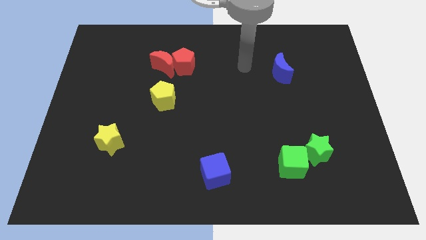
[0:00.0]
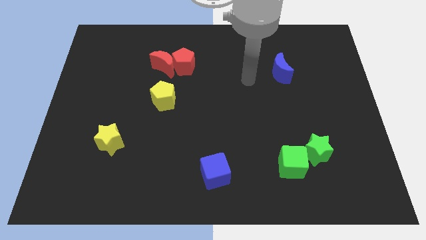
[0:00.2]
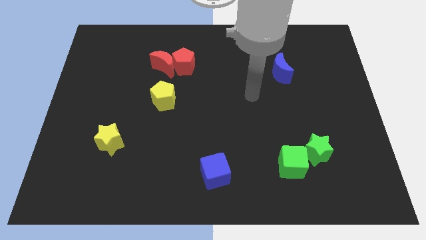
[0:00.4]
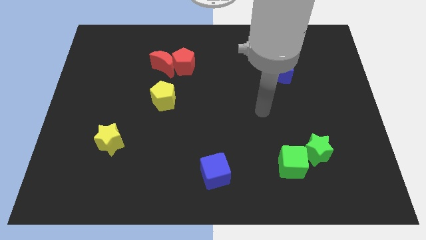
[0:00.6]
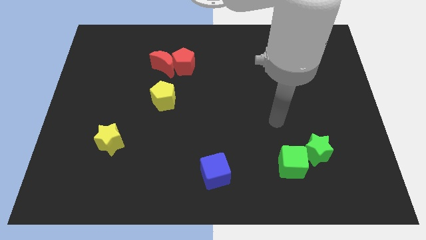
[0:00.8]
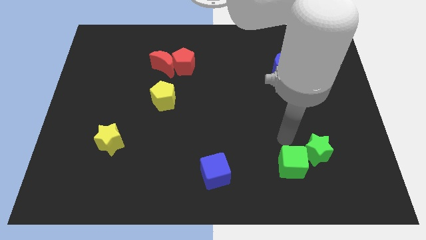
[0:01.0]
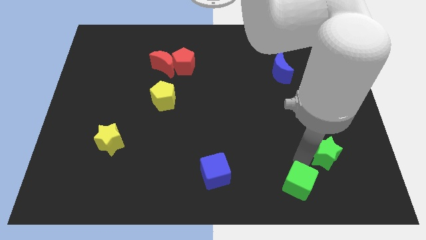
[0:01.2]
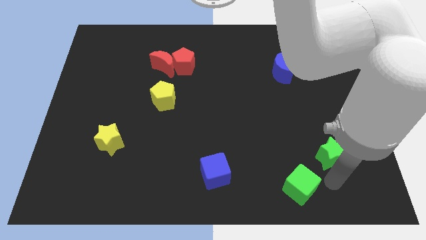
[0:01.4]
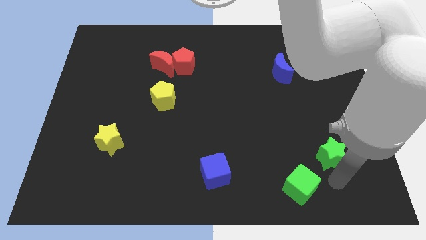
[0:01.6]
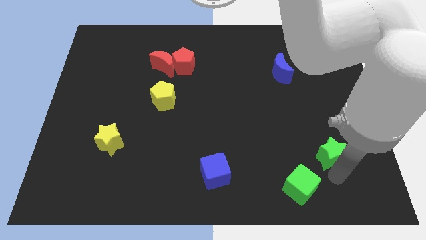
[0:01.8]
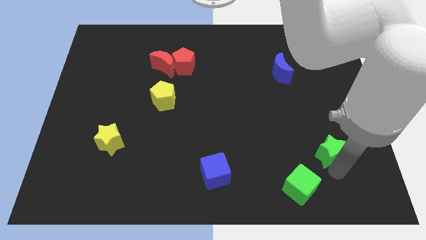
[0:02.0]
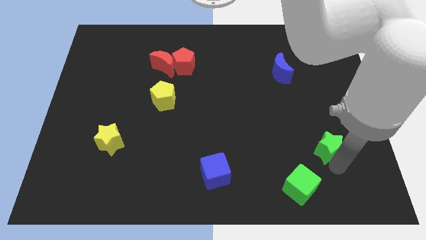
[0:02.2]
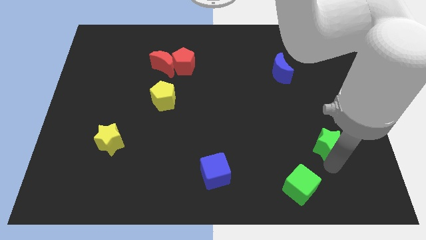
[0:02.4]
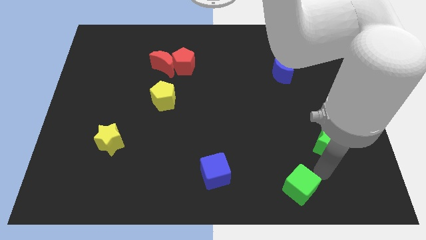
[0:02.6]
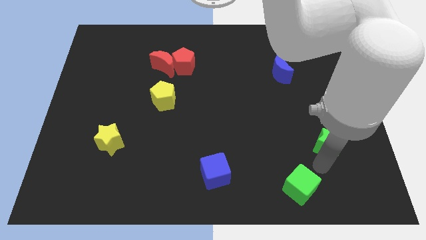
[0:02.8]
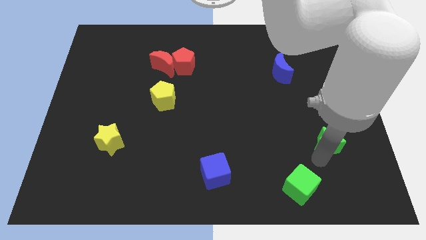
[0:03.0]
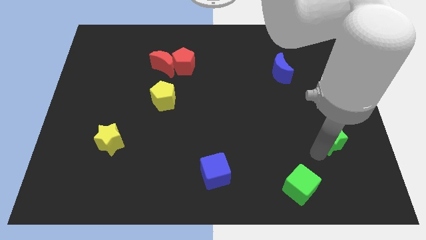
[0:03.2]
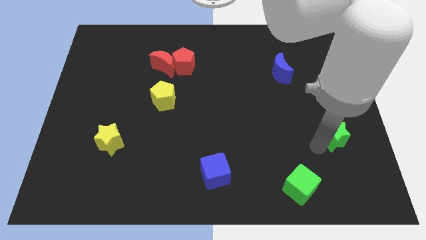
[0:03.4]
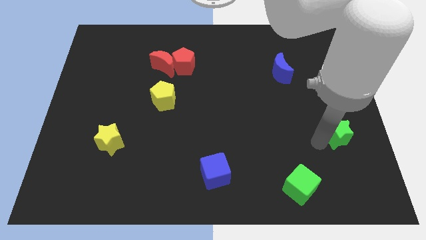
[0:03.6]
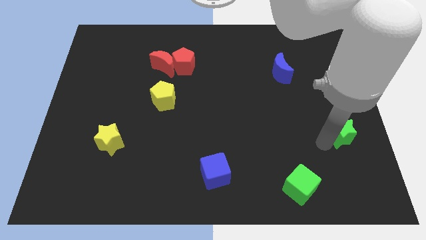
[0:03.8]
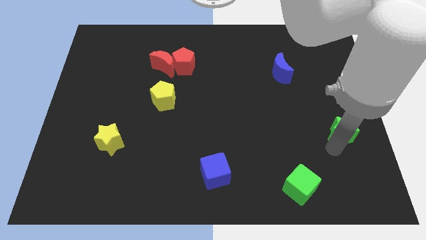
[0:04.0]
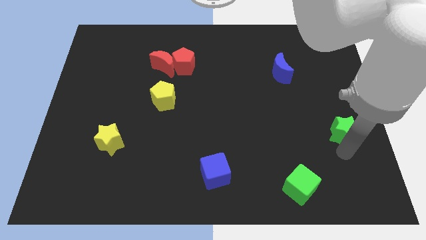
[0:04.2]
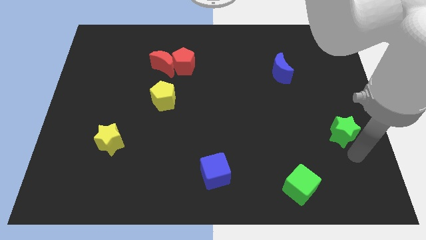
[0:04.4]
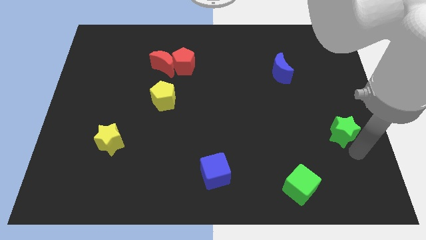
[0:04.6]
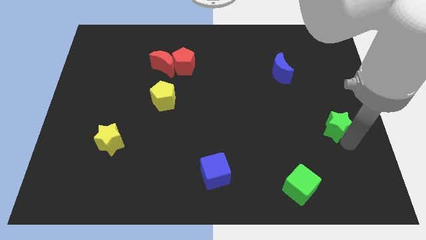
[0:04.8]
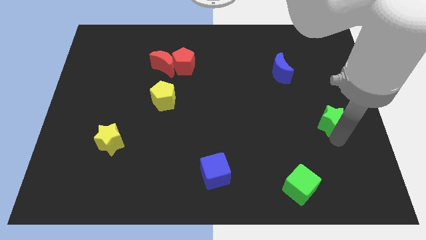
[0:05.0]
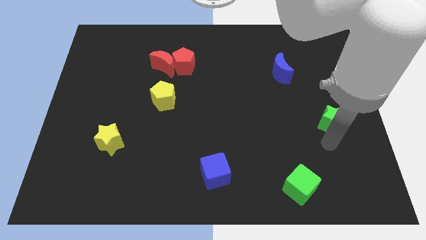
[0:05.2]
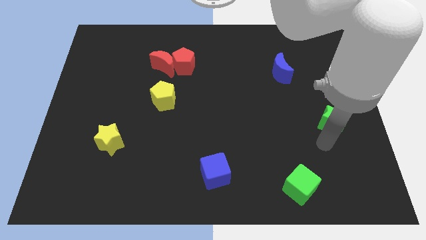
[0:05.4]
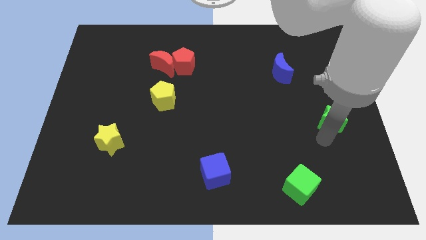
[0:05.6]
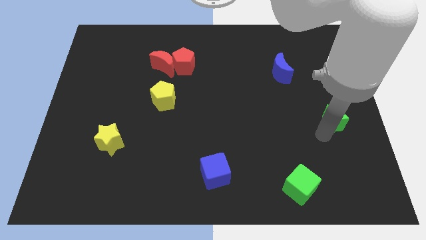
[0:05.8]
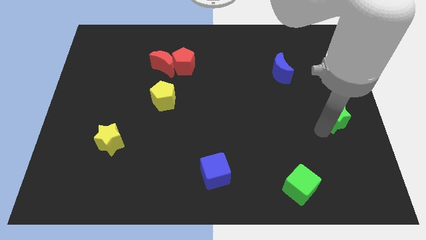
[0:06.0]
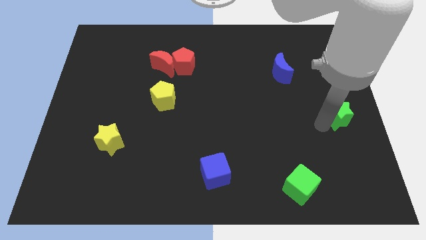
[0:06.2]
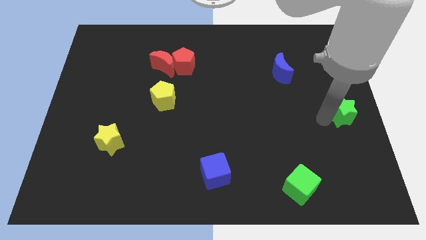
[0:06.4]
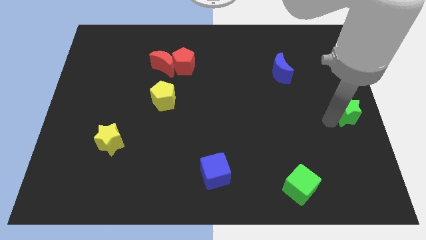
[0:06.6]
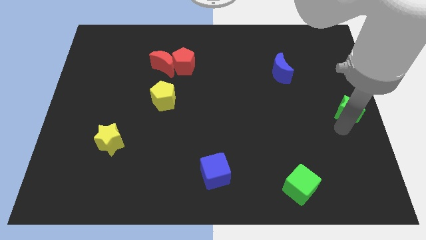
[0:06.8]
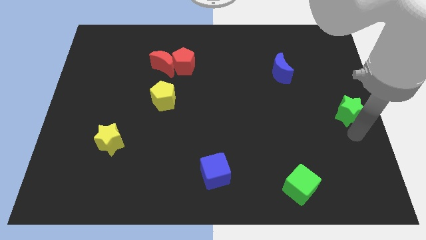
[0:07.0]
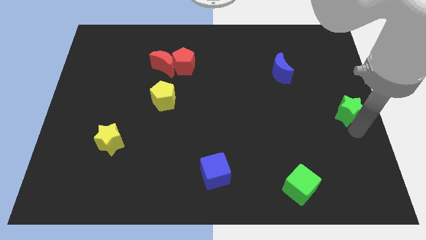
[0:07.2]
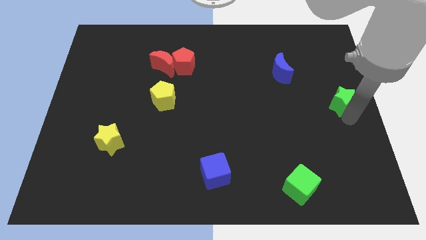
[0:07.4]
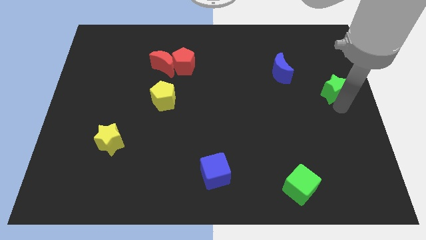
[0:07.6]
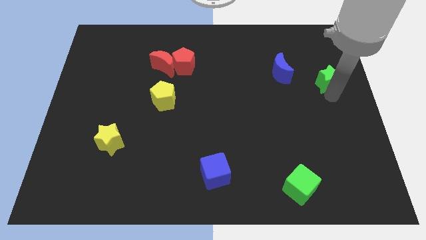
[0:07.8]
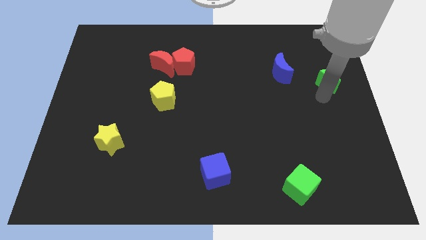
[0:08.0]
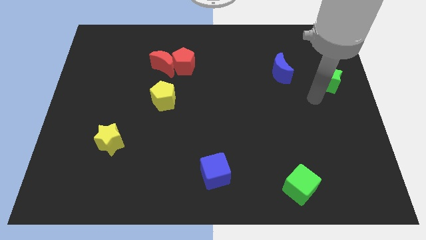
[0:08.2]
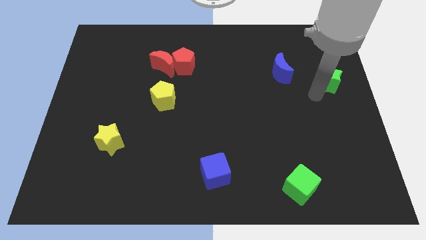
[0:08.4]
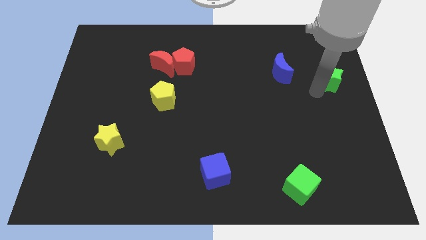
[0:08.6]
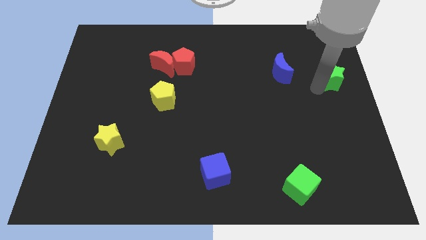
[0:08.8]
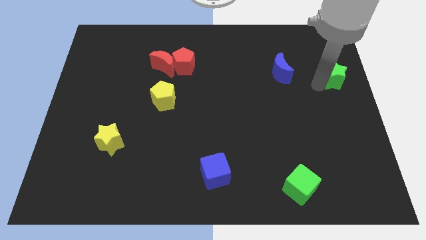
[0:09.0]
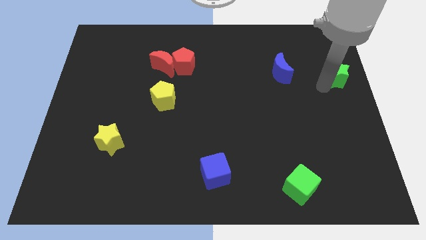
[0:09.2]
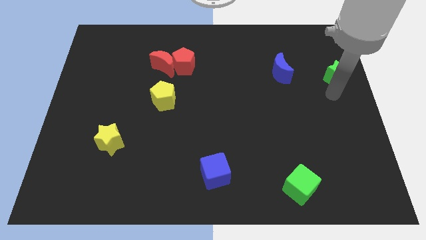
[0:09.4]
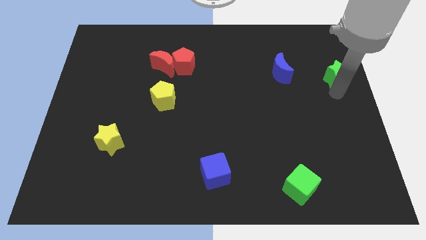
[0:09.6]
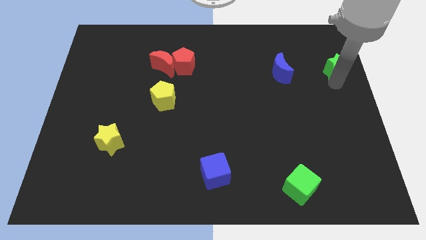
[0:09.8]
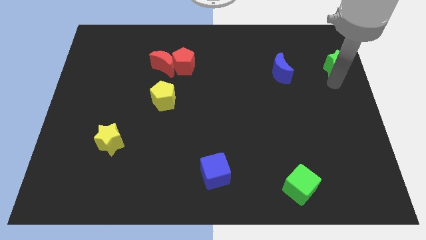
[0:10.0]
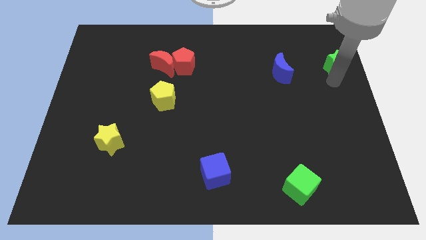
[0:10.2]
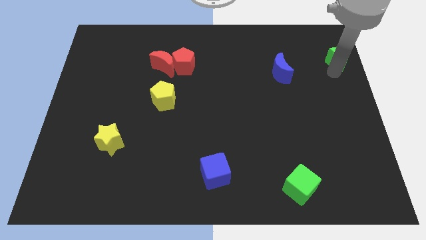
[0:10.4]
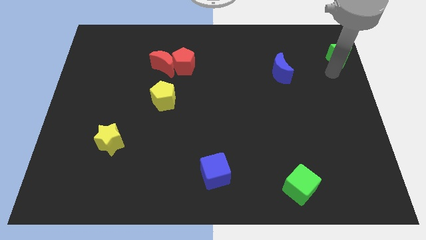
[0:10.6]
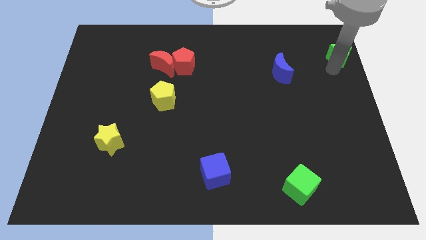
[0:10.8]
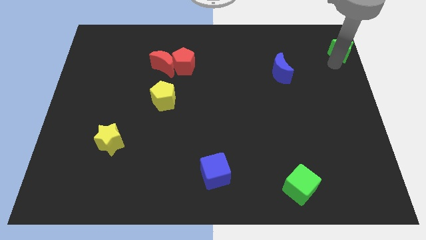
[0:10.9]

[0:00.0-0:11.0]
put the green star to the top right

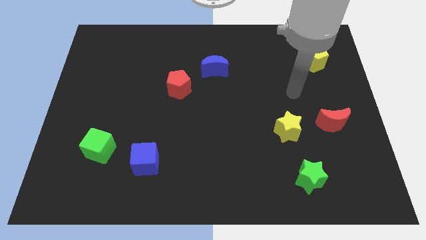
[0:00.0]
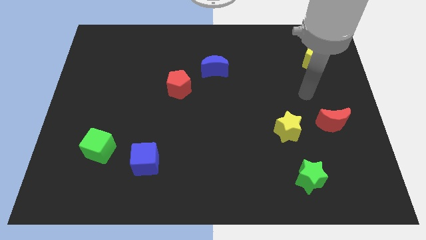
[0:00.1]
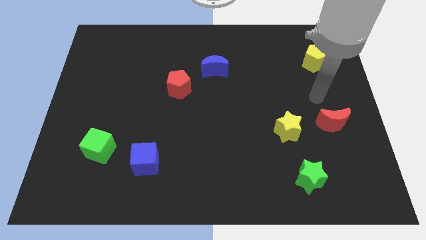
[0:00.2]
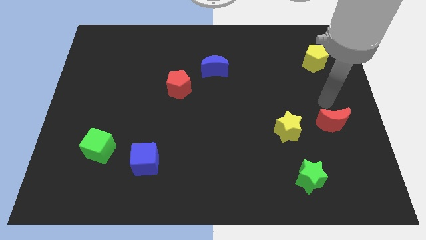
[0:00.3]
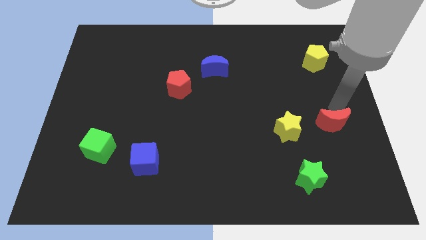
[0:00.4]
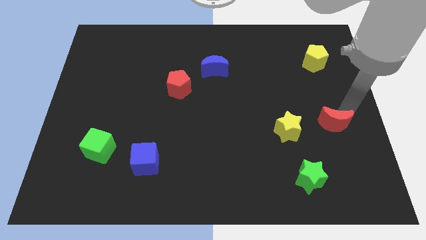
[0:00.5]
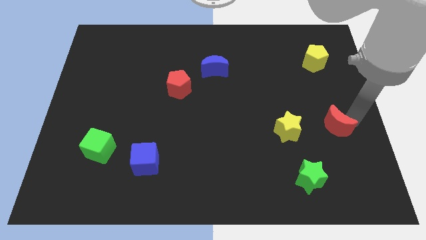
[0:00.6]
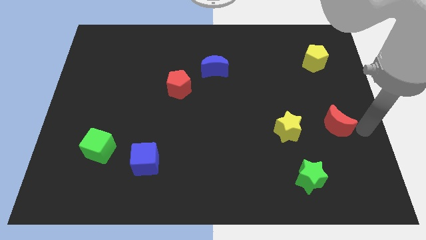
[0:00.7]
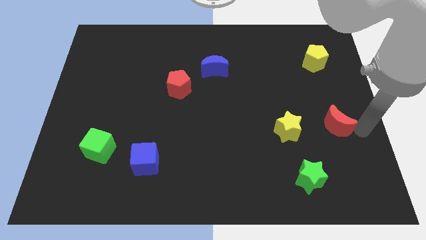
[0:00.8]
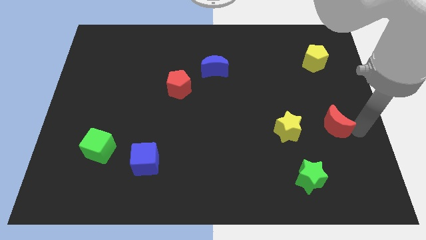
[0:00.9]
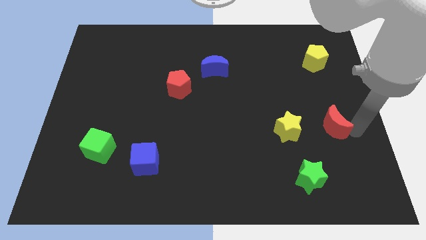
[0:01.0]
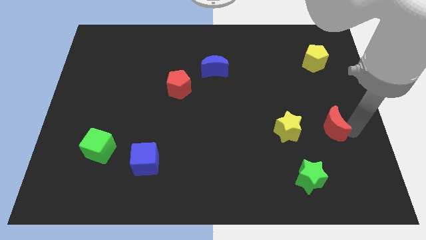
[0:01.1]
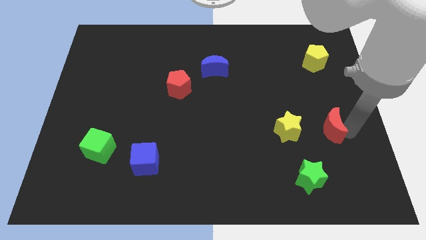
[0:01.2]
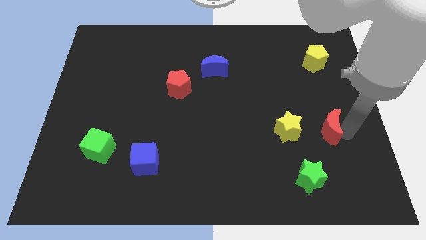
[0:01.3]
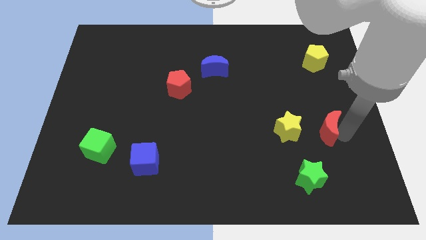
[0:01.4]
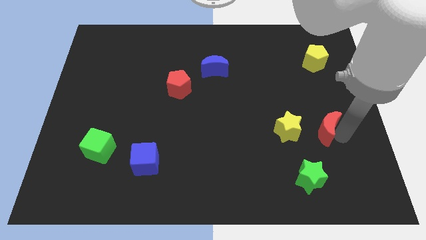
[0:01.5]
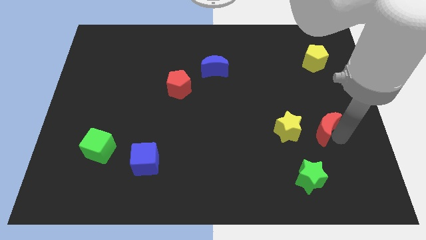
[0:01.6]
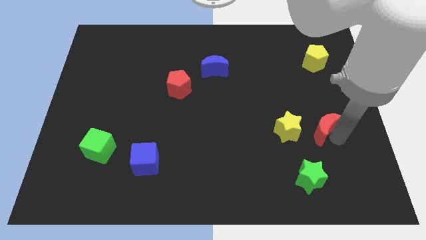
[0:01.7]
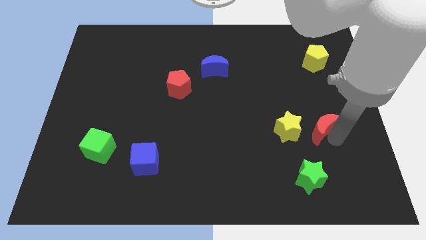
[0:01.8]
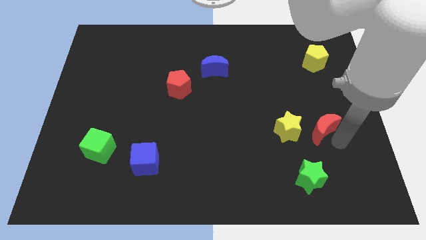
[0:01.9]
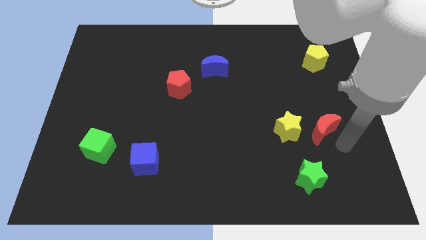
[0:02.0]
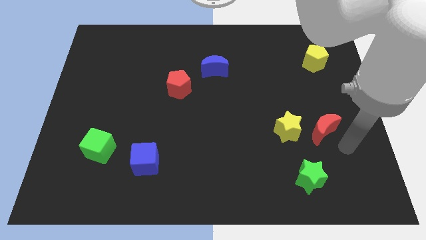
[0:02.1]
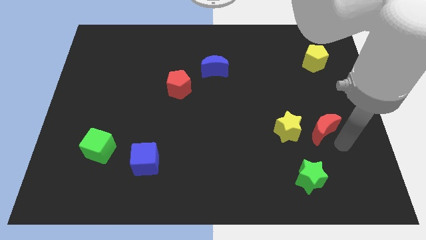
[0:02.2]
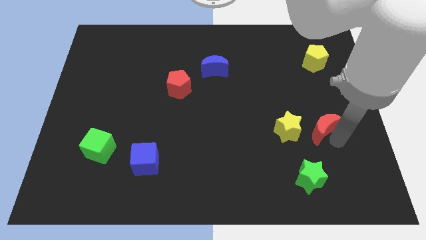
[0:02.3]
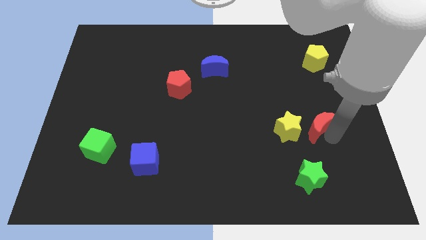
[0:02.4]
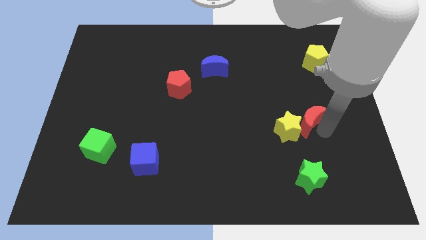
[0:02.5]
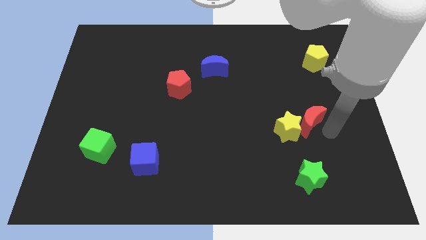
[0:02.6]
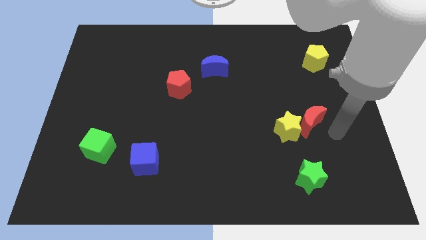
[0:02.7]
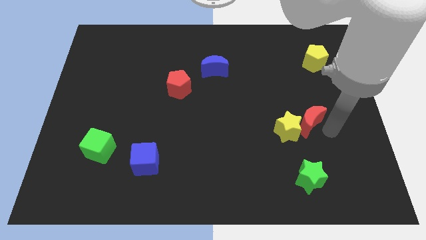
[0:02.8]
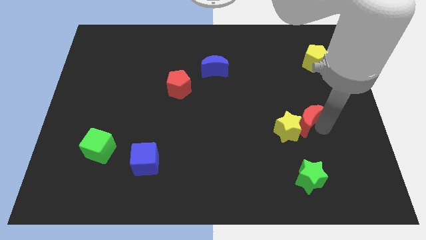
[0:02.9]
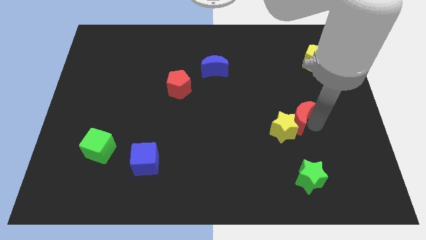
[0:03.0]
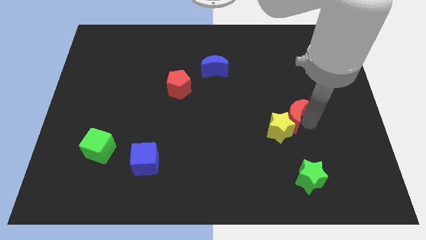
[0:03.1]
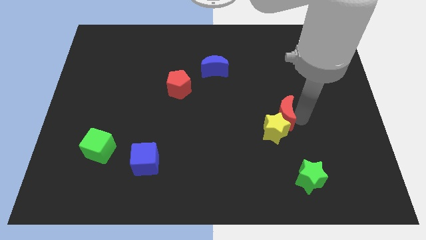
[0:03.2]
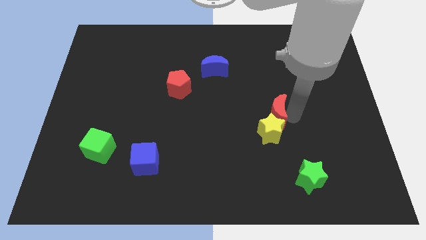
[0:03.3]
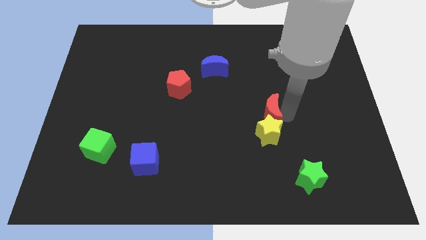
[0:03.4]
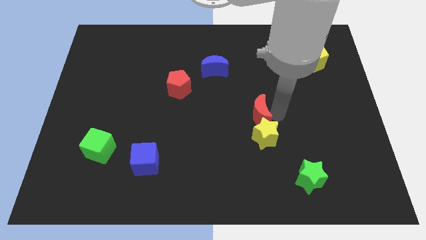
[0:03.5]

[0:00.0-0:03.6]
move the red moon to the center of the board
